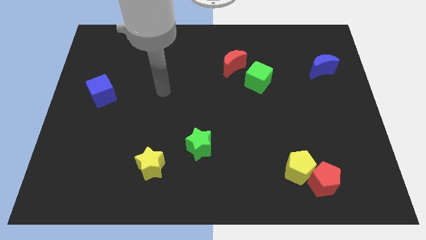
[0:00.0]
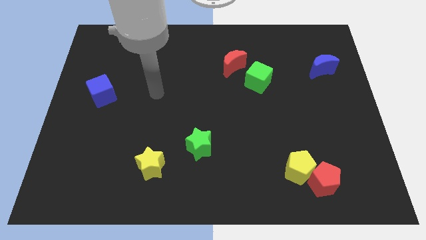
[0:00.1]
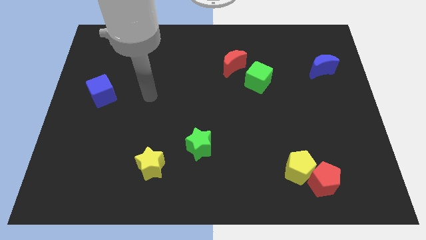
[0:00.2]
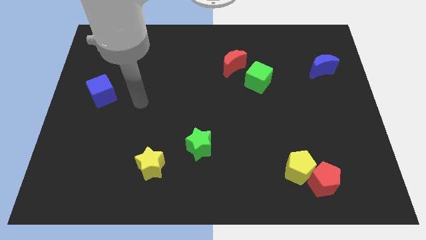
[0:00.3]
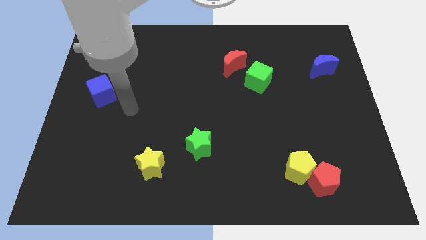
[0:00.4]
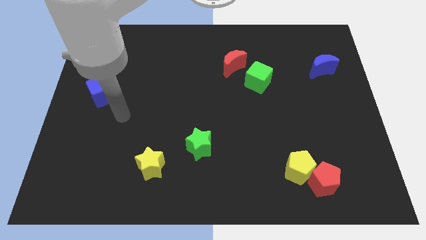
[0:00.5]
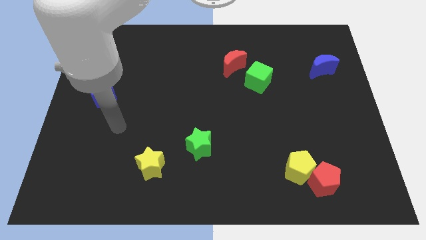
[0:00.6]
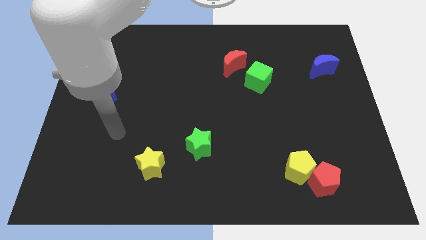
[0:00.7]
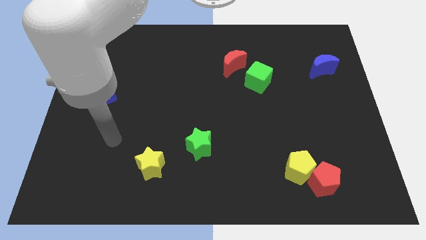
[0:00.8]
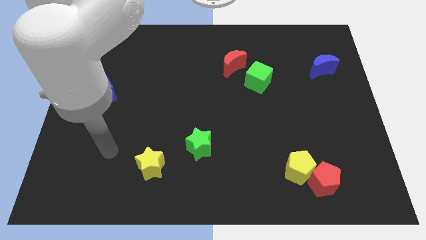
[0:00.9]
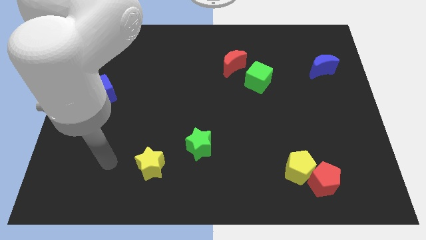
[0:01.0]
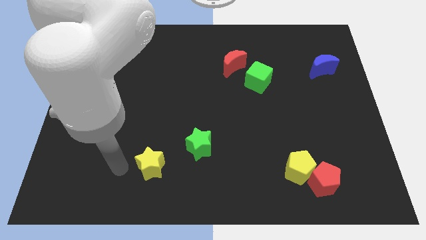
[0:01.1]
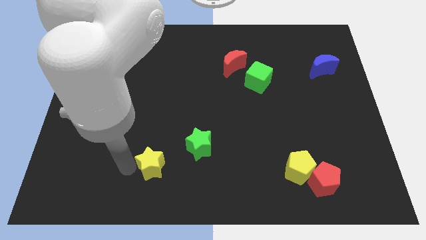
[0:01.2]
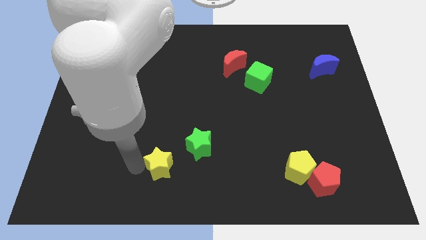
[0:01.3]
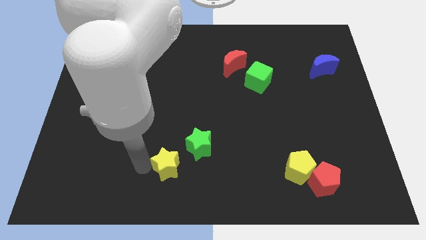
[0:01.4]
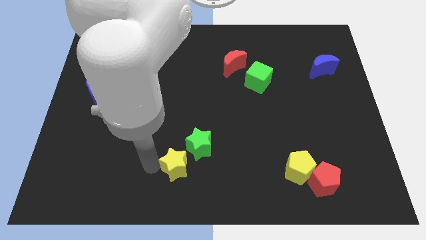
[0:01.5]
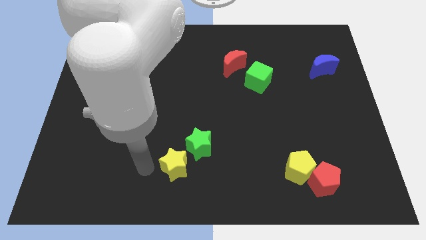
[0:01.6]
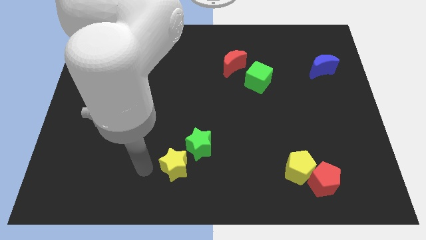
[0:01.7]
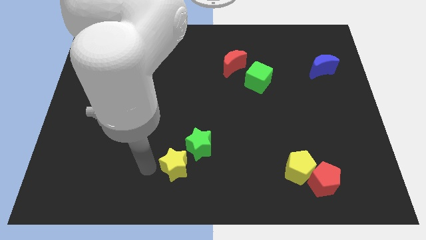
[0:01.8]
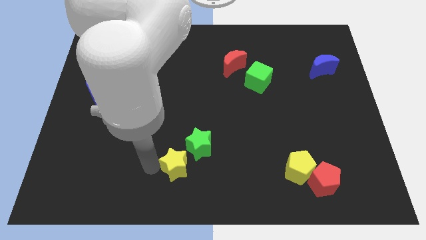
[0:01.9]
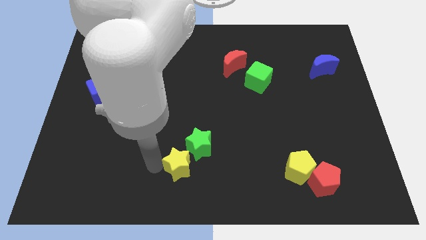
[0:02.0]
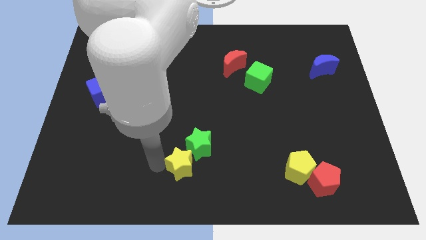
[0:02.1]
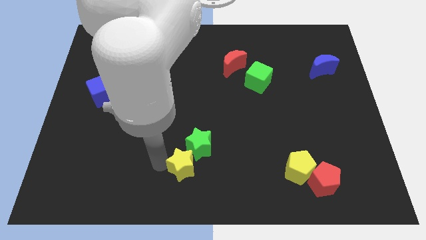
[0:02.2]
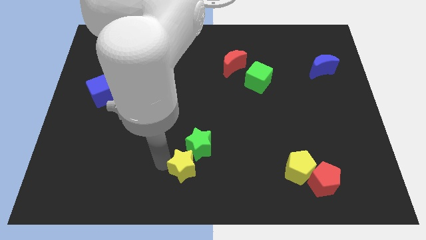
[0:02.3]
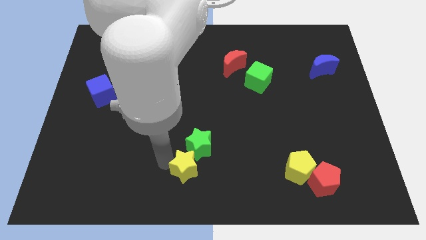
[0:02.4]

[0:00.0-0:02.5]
slightly slide the yellow star right

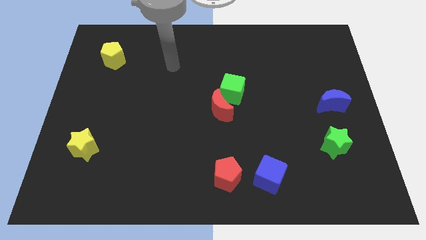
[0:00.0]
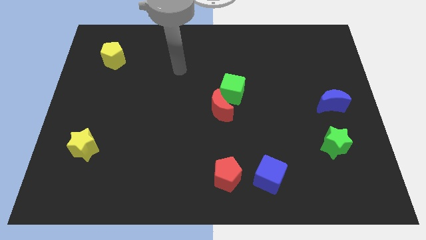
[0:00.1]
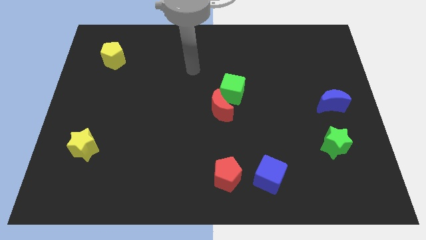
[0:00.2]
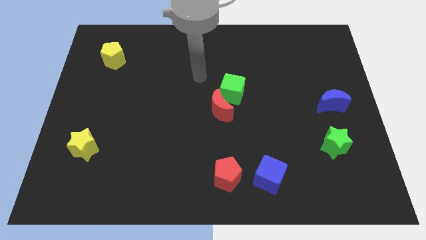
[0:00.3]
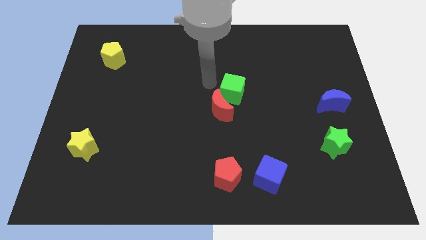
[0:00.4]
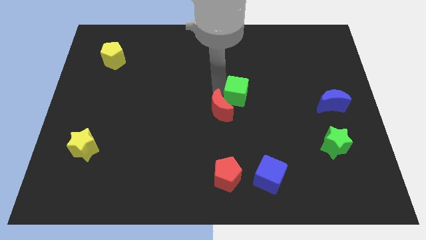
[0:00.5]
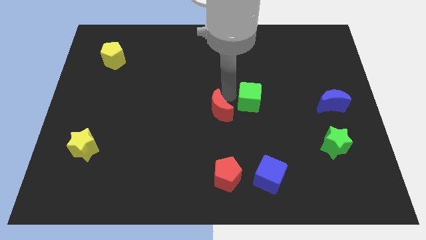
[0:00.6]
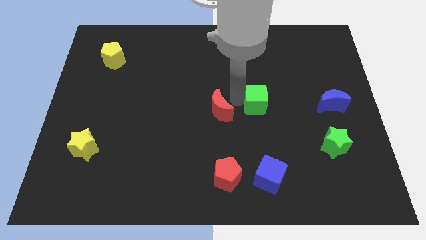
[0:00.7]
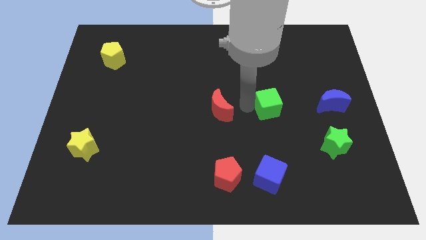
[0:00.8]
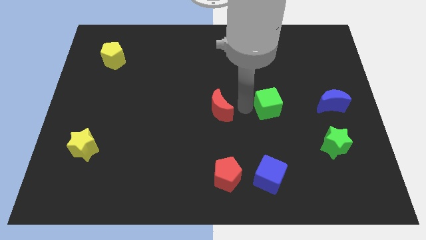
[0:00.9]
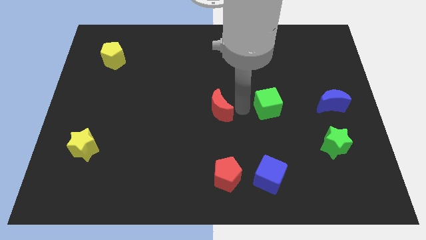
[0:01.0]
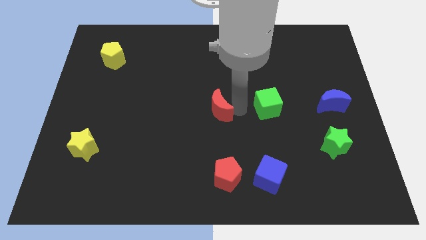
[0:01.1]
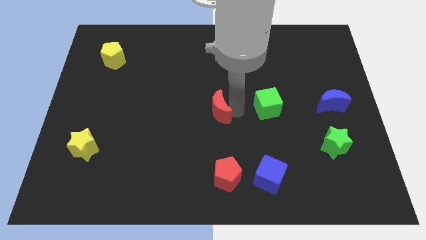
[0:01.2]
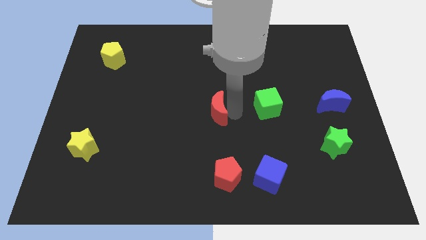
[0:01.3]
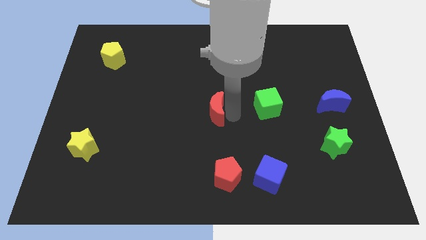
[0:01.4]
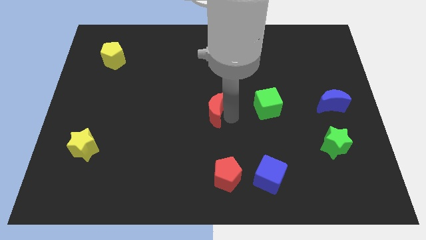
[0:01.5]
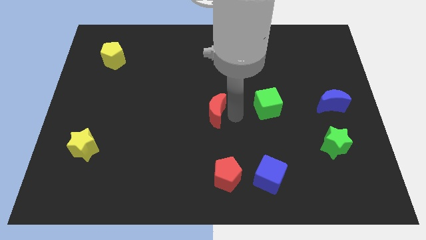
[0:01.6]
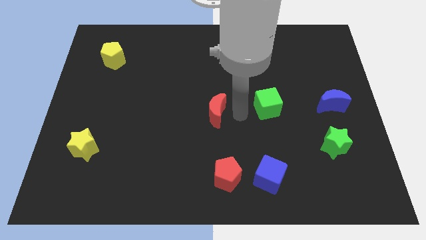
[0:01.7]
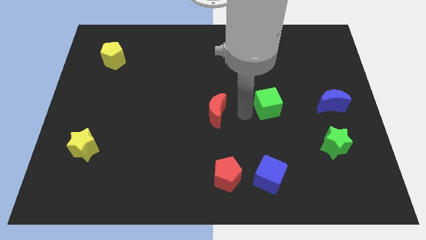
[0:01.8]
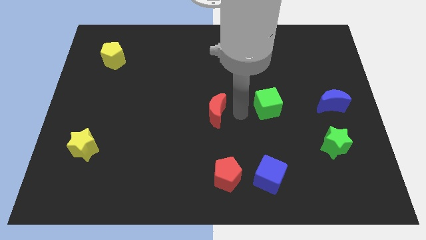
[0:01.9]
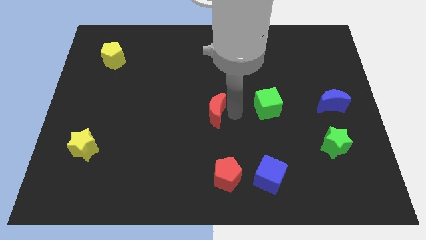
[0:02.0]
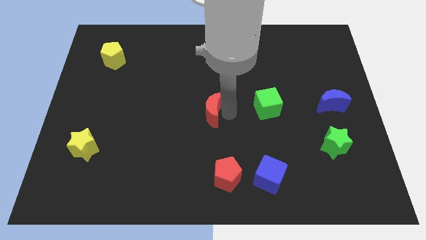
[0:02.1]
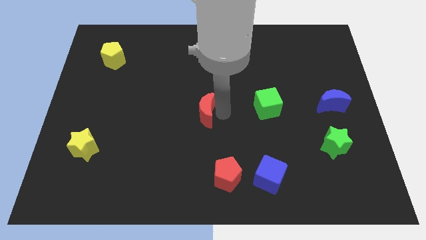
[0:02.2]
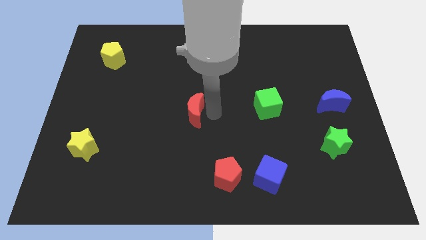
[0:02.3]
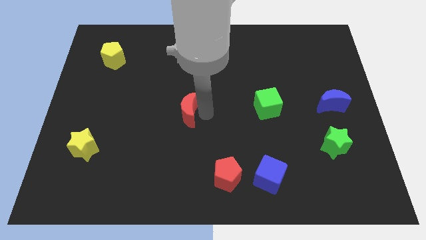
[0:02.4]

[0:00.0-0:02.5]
slightly slide the red moon to the left

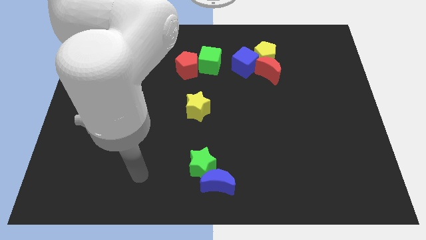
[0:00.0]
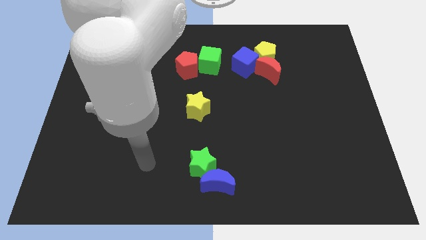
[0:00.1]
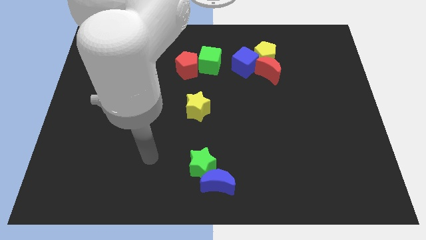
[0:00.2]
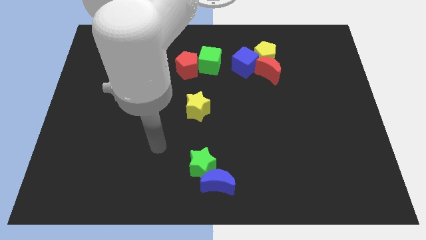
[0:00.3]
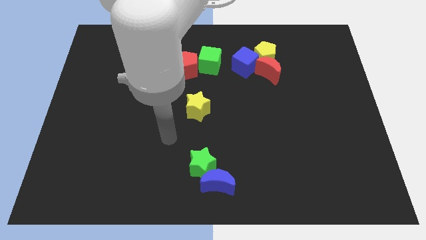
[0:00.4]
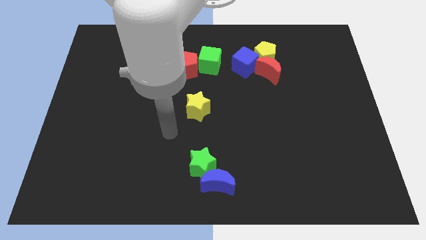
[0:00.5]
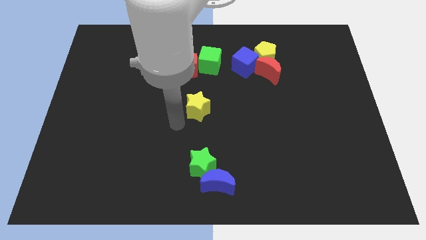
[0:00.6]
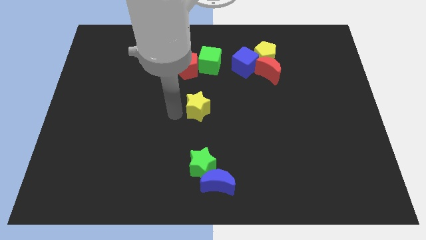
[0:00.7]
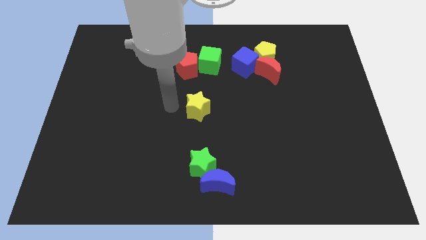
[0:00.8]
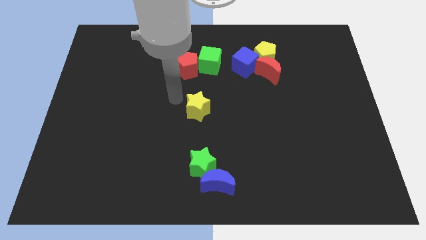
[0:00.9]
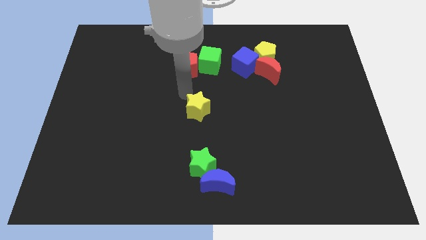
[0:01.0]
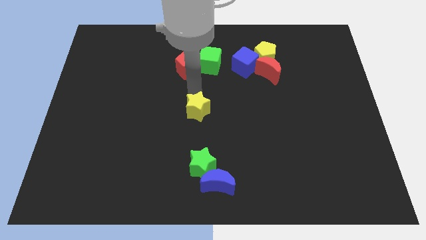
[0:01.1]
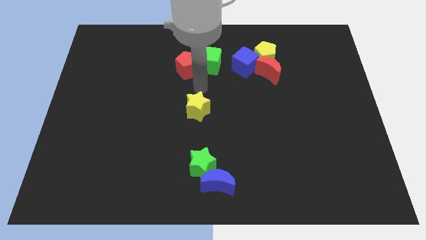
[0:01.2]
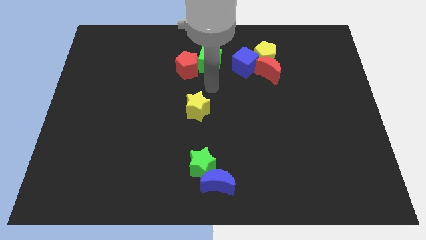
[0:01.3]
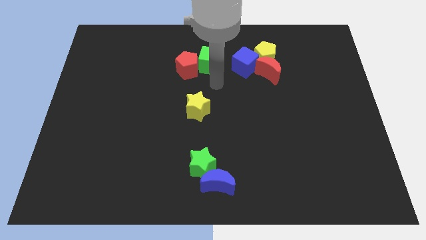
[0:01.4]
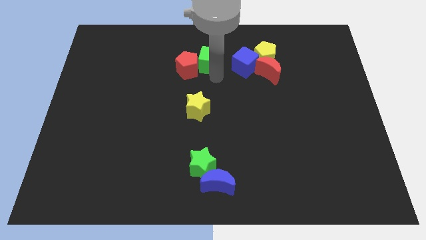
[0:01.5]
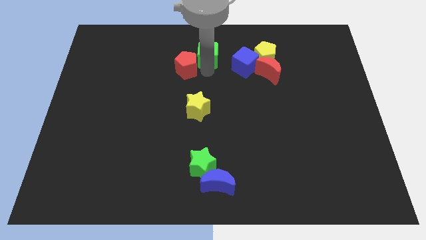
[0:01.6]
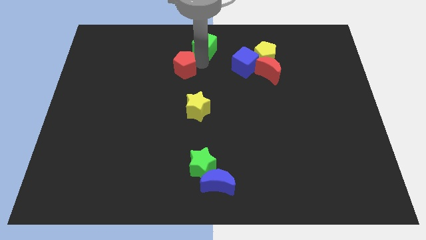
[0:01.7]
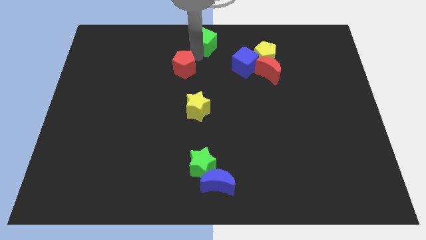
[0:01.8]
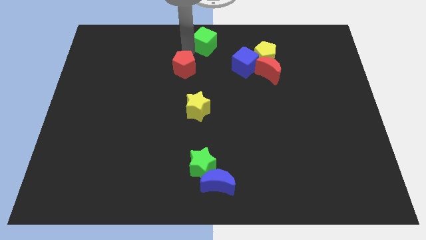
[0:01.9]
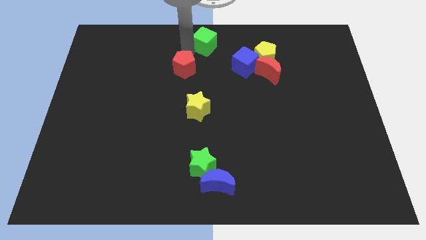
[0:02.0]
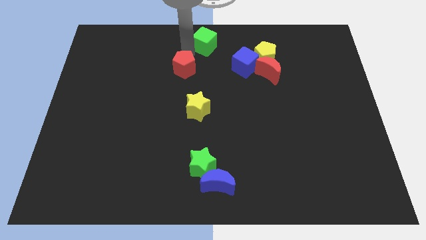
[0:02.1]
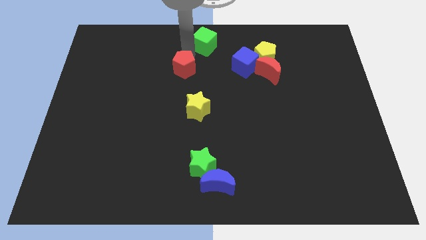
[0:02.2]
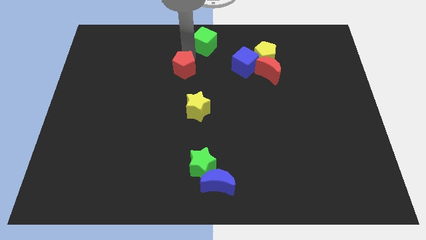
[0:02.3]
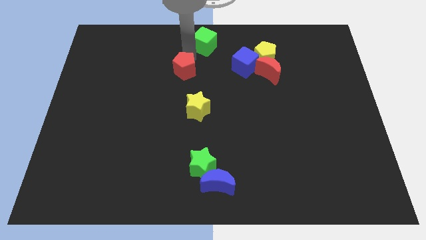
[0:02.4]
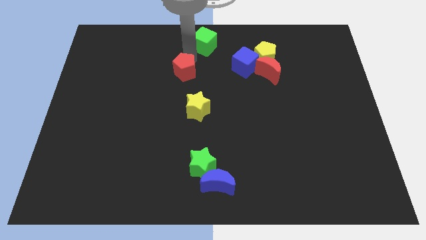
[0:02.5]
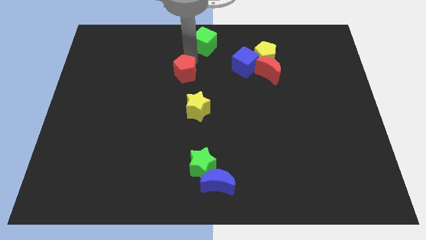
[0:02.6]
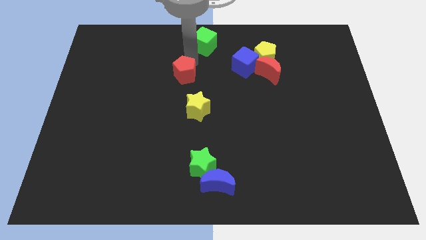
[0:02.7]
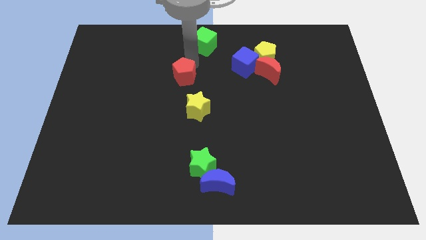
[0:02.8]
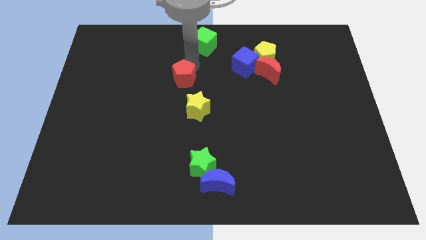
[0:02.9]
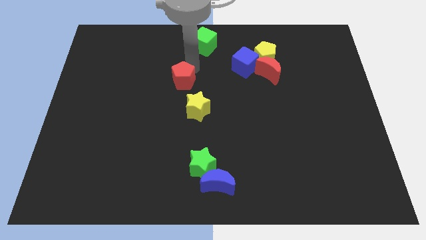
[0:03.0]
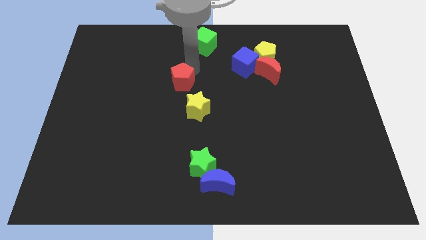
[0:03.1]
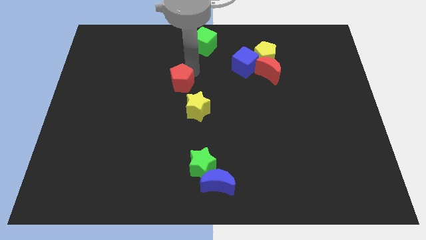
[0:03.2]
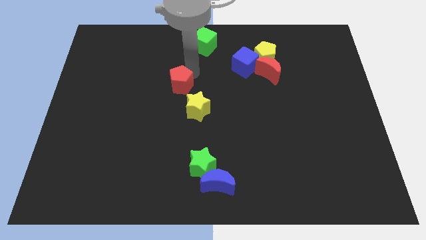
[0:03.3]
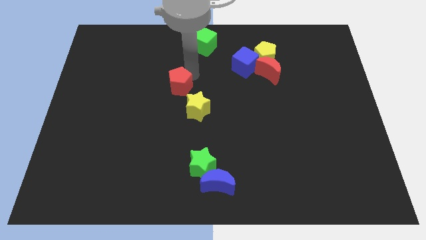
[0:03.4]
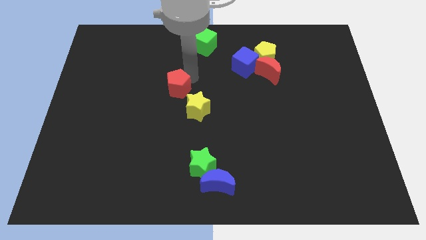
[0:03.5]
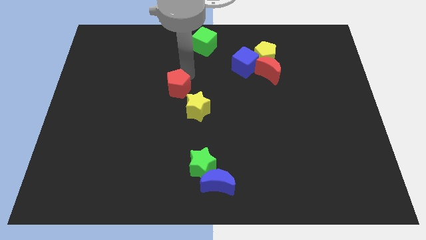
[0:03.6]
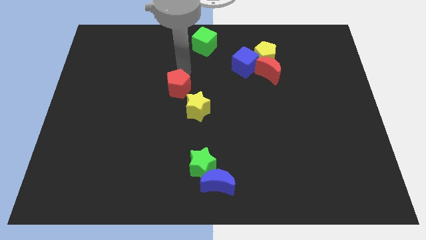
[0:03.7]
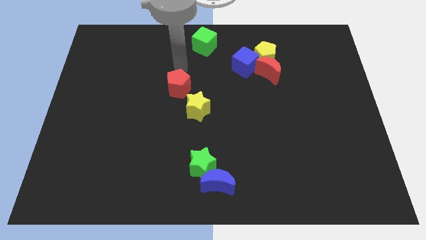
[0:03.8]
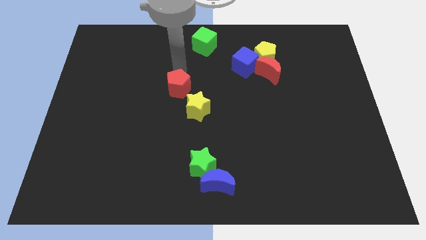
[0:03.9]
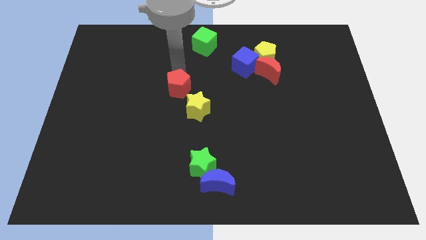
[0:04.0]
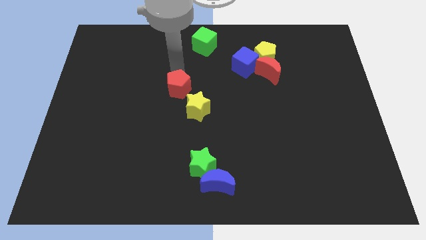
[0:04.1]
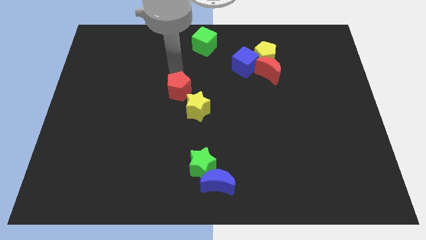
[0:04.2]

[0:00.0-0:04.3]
push the red pentagon downwards a bit
